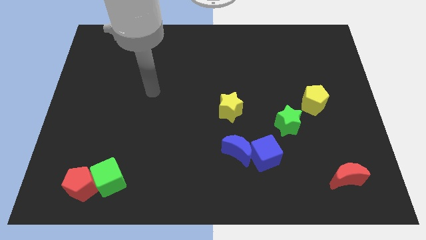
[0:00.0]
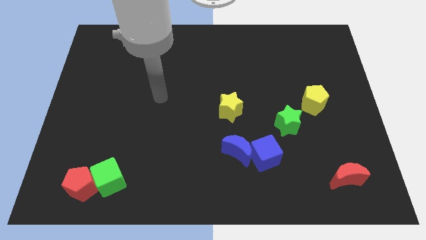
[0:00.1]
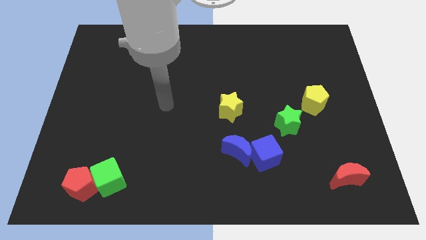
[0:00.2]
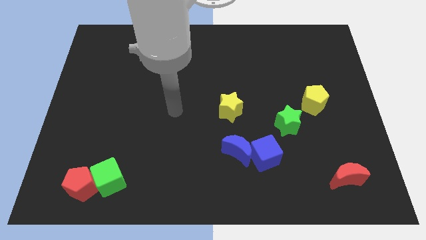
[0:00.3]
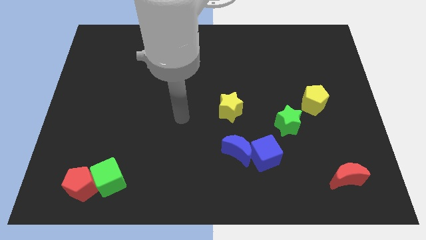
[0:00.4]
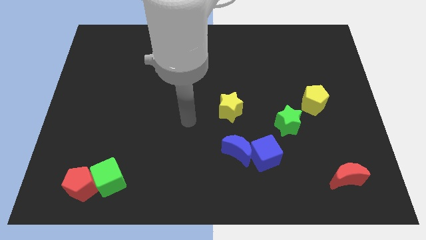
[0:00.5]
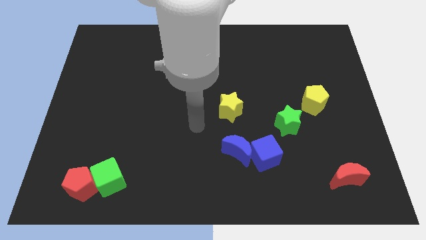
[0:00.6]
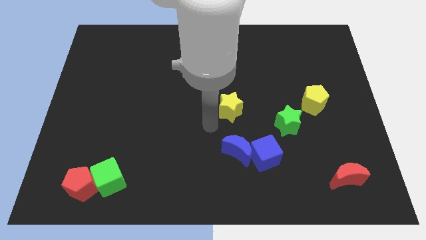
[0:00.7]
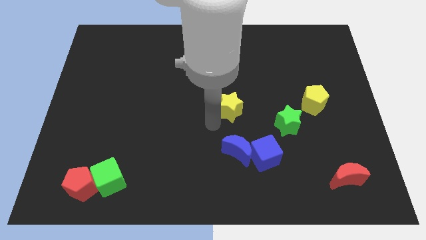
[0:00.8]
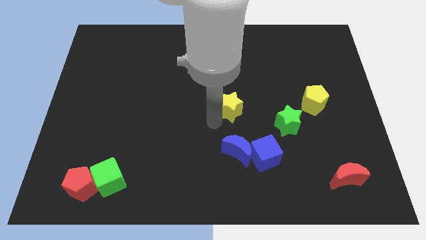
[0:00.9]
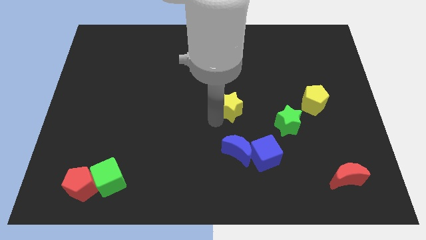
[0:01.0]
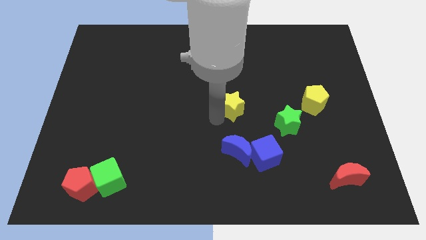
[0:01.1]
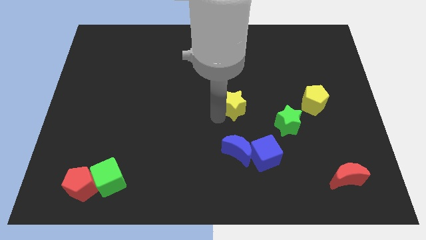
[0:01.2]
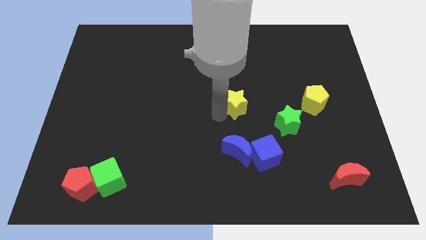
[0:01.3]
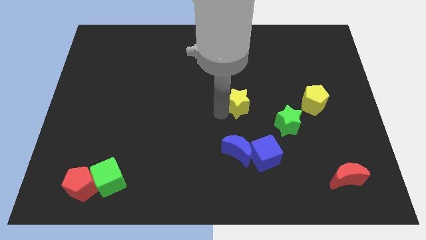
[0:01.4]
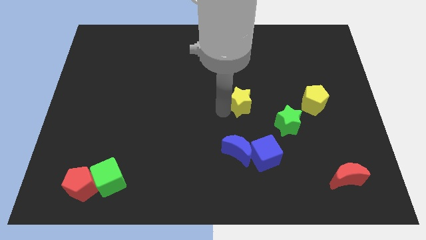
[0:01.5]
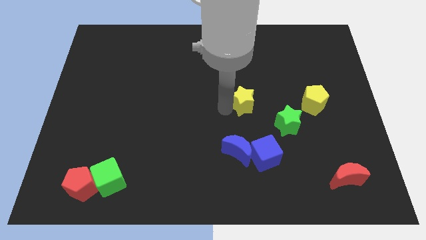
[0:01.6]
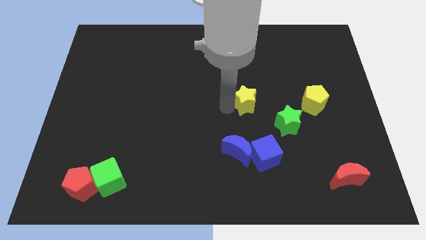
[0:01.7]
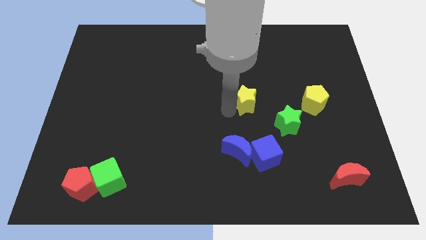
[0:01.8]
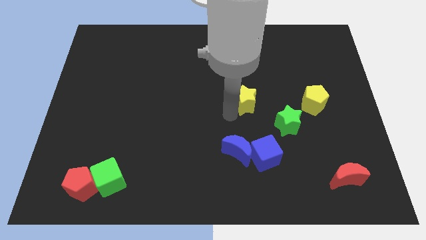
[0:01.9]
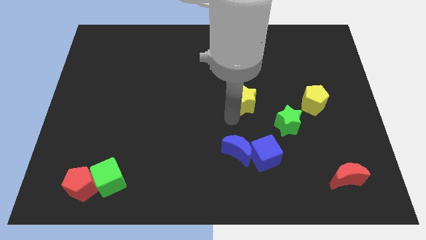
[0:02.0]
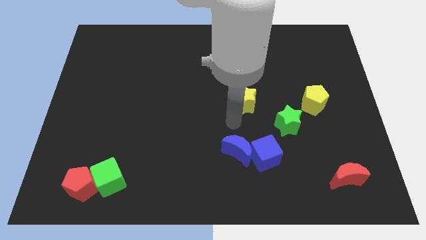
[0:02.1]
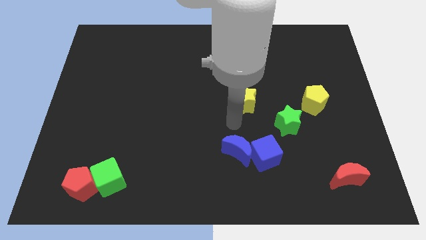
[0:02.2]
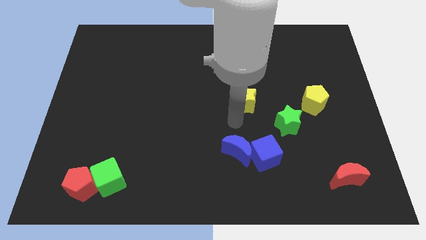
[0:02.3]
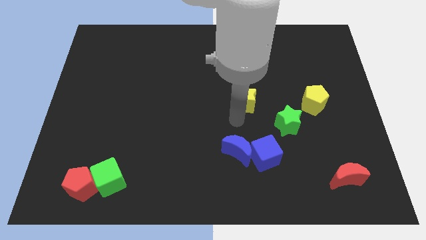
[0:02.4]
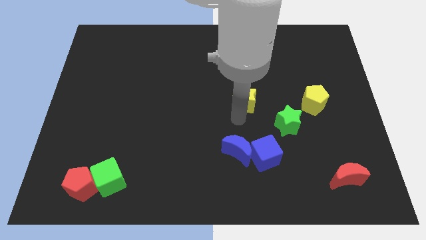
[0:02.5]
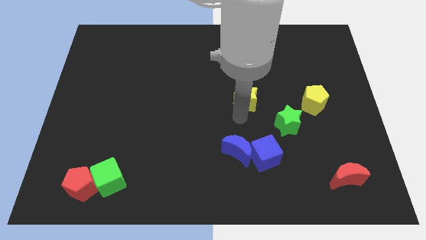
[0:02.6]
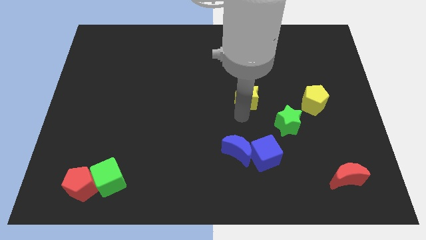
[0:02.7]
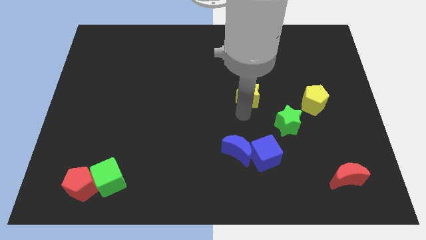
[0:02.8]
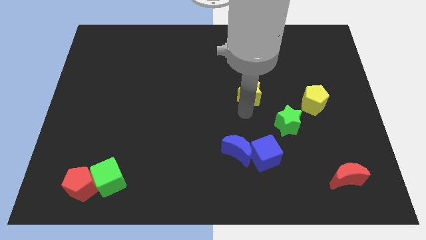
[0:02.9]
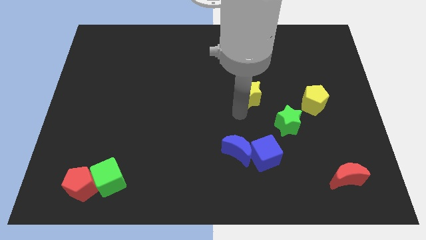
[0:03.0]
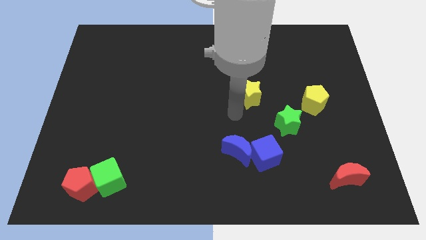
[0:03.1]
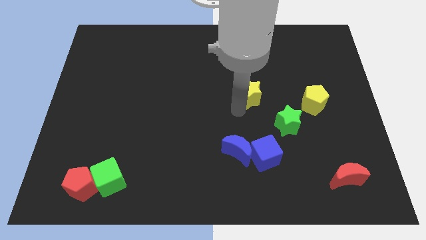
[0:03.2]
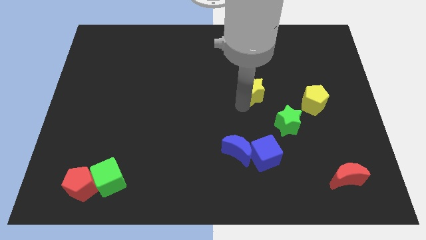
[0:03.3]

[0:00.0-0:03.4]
slightly push the yellow star upwards and to the right diagonally

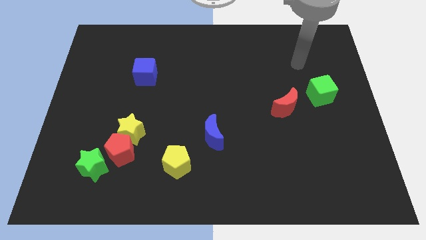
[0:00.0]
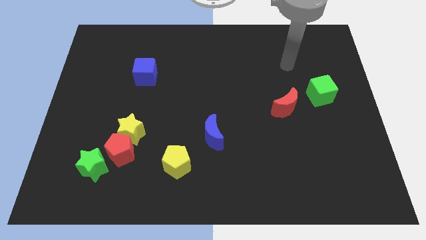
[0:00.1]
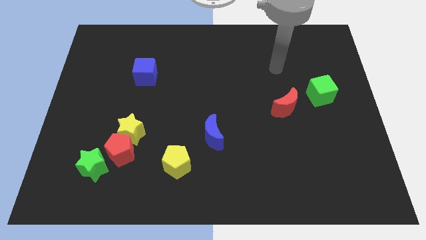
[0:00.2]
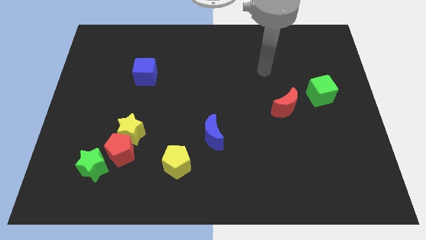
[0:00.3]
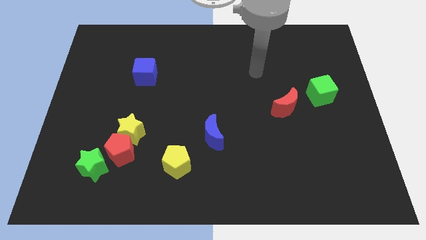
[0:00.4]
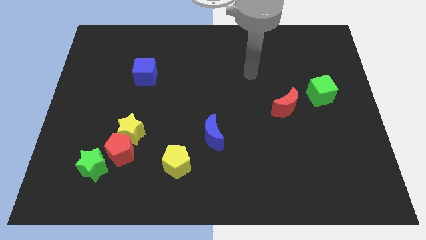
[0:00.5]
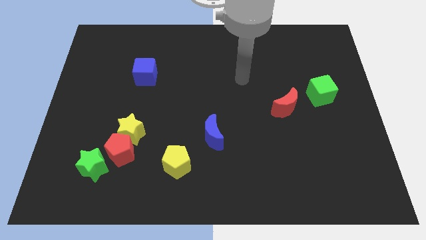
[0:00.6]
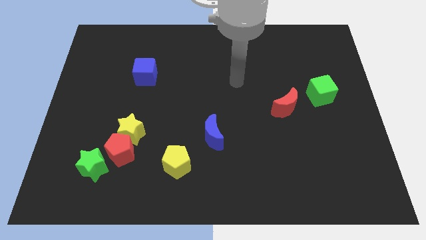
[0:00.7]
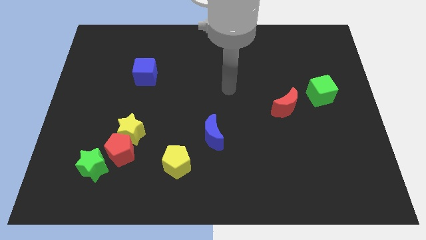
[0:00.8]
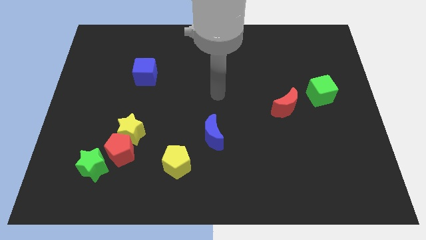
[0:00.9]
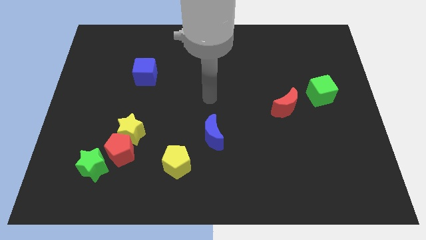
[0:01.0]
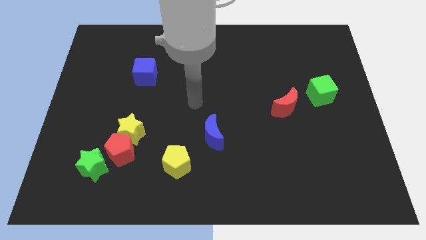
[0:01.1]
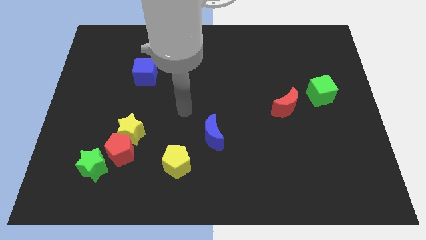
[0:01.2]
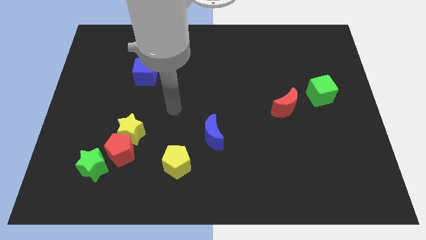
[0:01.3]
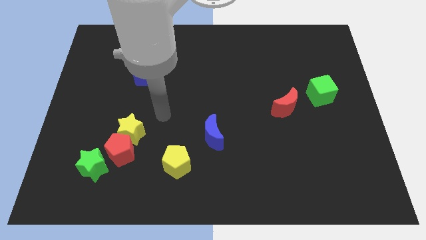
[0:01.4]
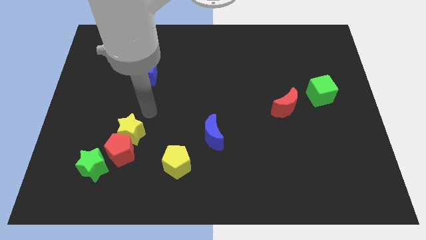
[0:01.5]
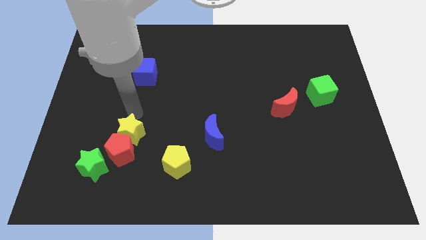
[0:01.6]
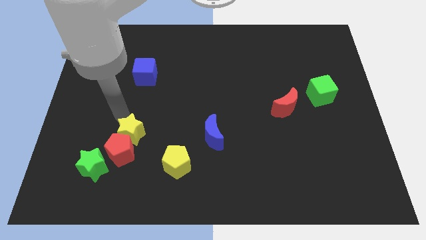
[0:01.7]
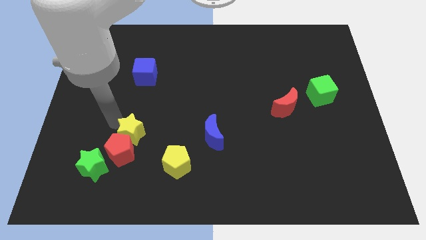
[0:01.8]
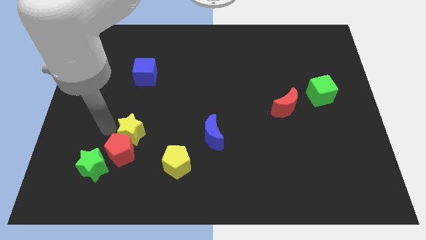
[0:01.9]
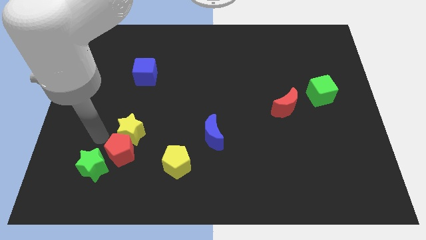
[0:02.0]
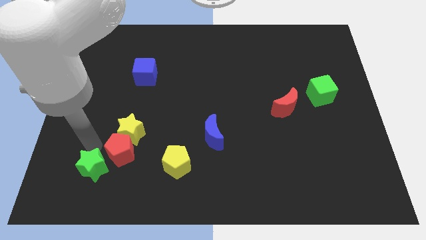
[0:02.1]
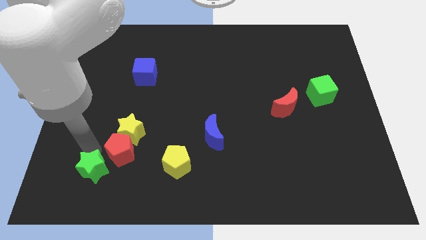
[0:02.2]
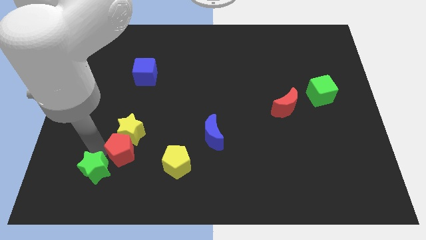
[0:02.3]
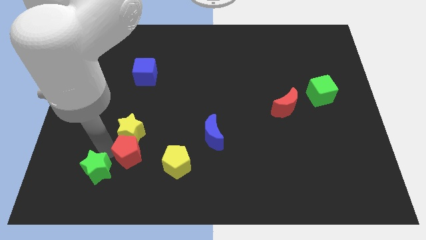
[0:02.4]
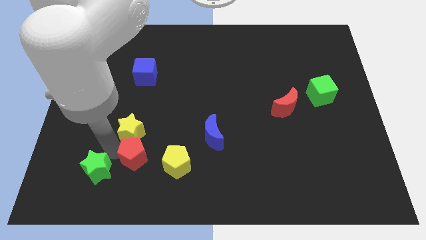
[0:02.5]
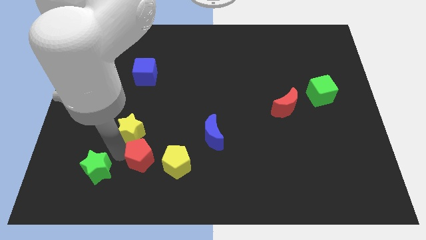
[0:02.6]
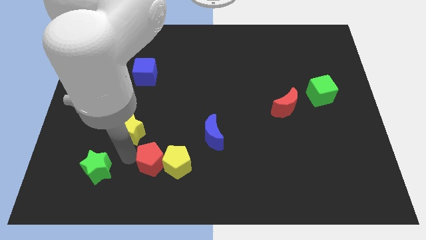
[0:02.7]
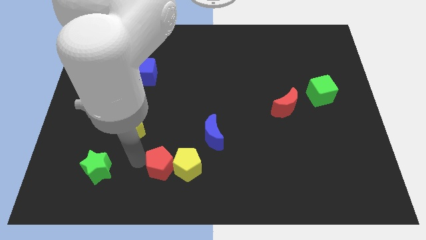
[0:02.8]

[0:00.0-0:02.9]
push the red pentagon to the right somewhat

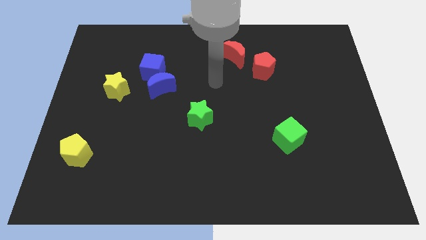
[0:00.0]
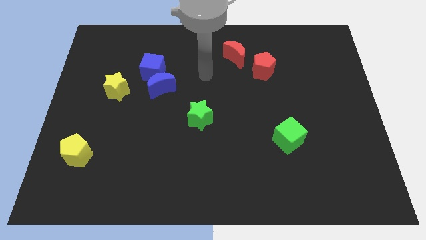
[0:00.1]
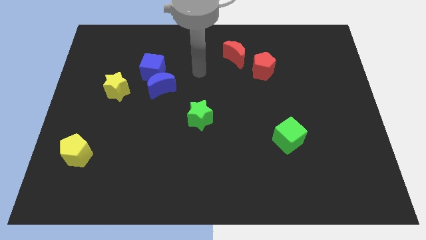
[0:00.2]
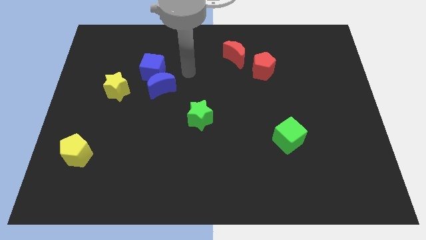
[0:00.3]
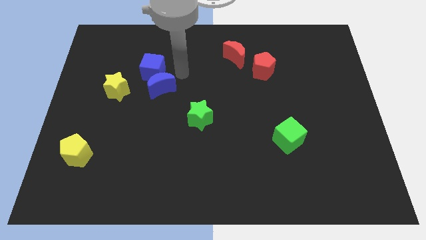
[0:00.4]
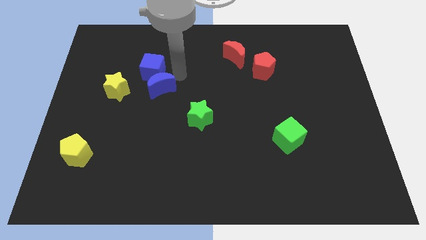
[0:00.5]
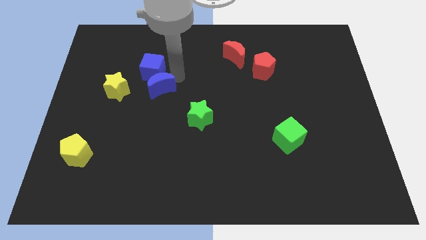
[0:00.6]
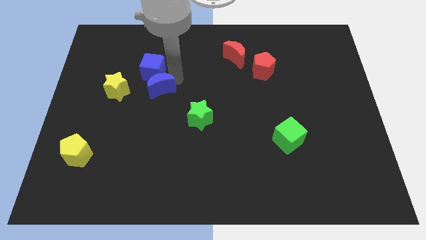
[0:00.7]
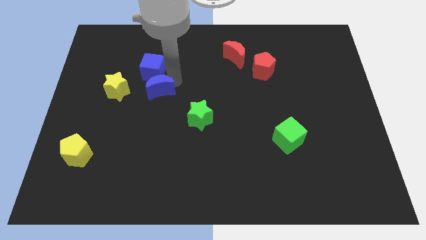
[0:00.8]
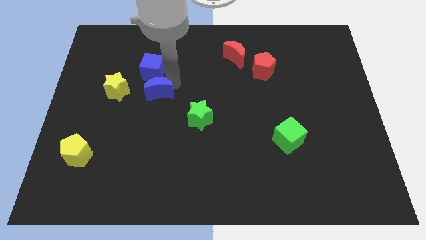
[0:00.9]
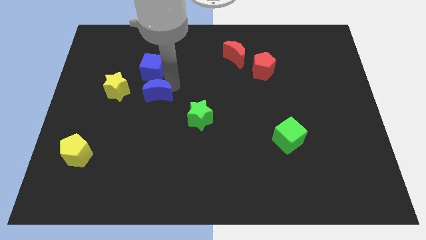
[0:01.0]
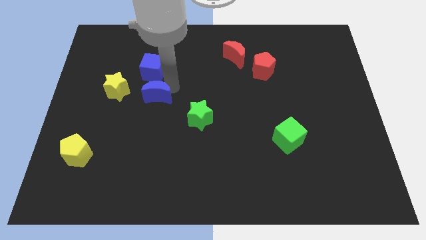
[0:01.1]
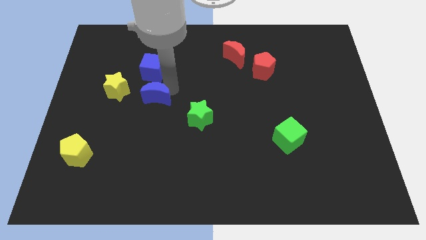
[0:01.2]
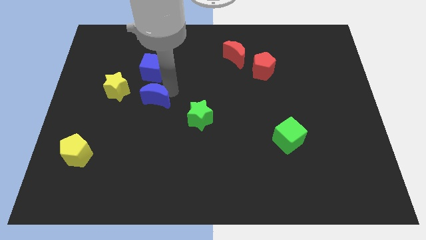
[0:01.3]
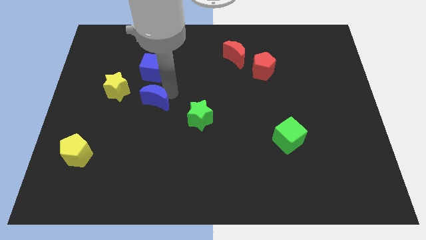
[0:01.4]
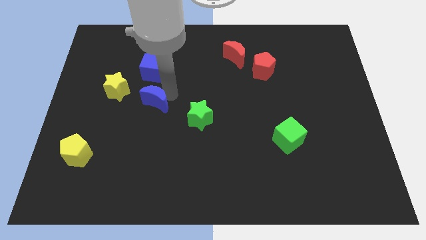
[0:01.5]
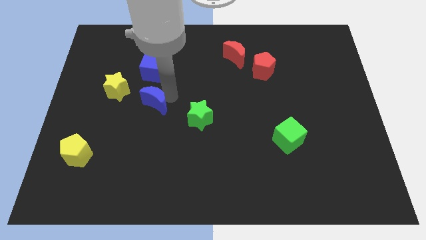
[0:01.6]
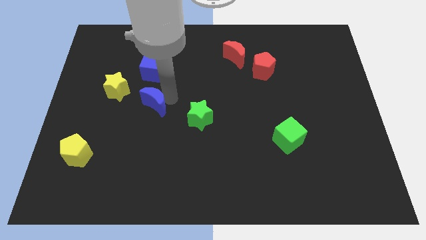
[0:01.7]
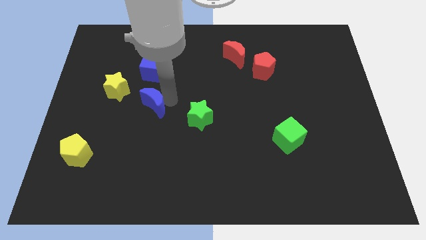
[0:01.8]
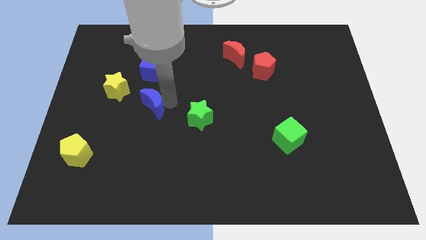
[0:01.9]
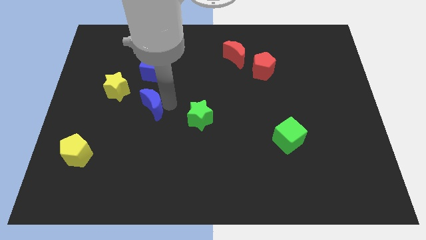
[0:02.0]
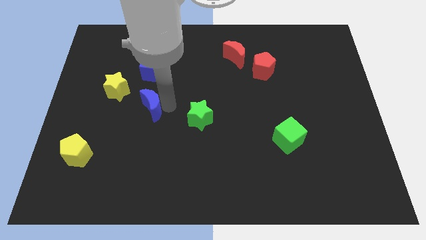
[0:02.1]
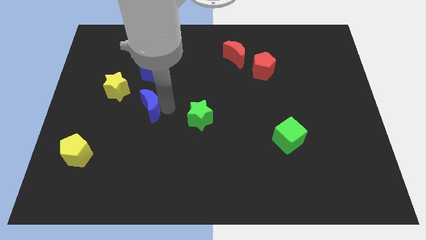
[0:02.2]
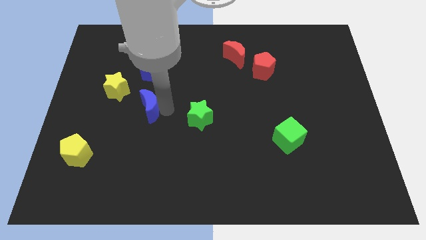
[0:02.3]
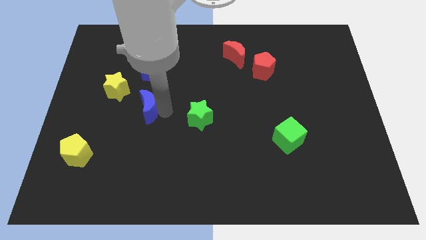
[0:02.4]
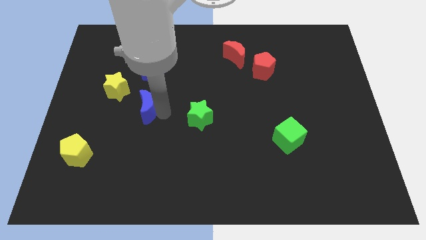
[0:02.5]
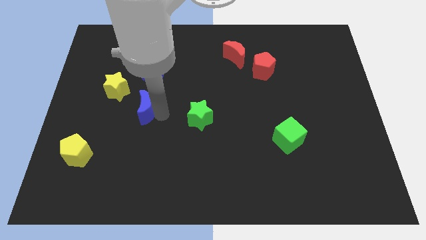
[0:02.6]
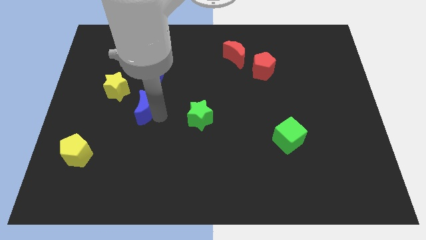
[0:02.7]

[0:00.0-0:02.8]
move the blue moon a little downwards and then to the left
